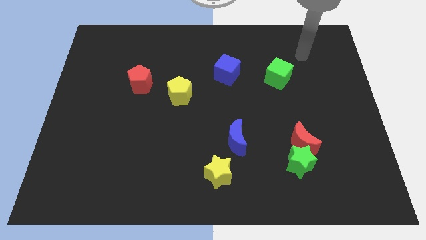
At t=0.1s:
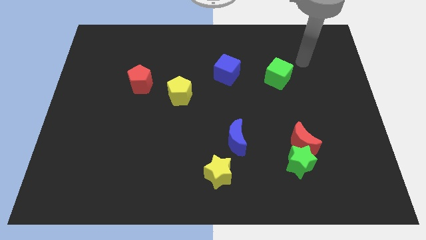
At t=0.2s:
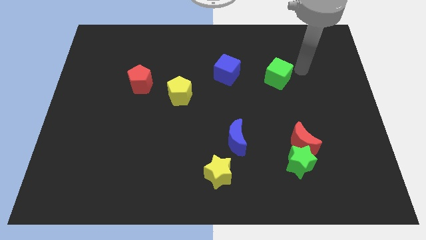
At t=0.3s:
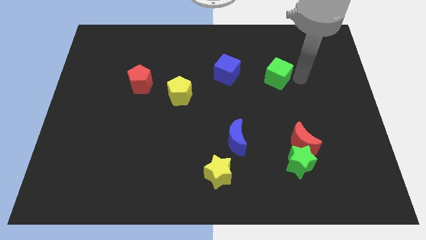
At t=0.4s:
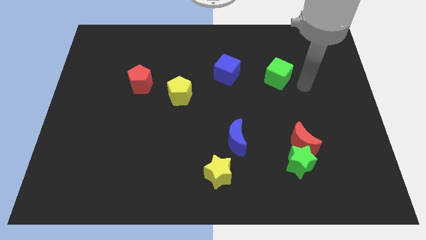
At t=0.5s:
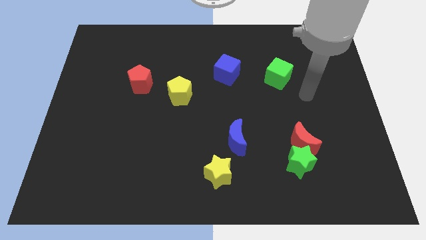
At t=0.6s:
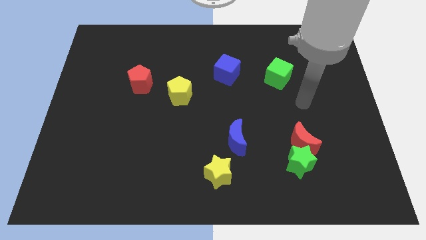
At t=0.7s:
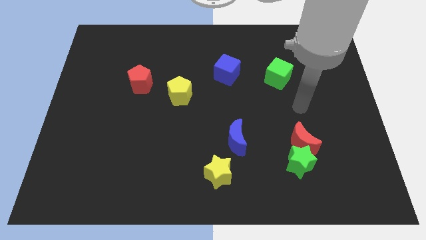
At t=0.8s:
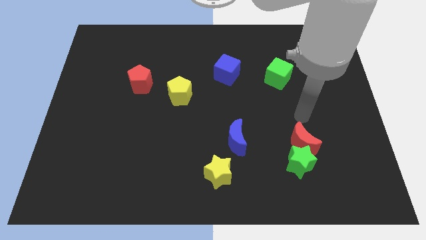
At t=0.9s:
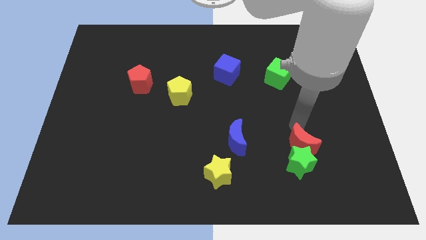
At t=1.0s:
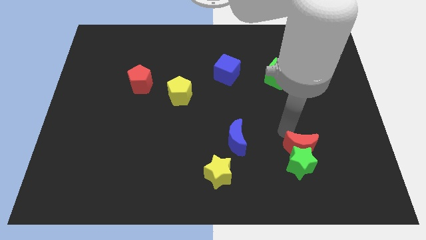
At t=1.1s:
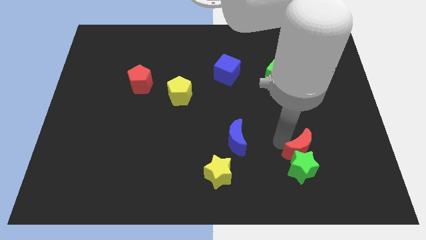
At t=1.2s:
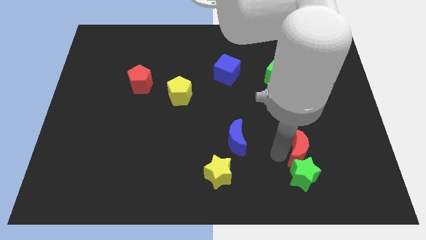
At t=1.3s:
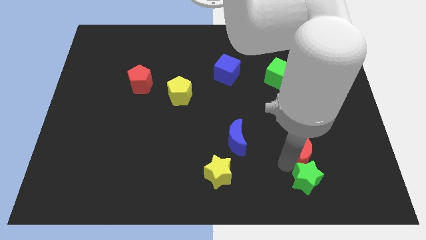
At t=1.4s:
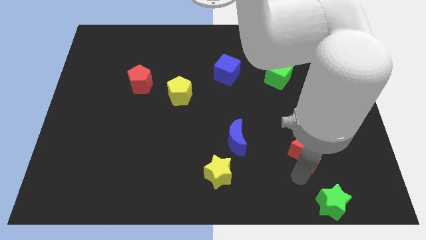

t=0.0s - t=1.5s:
pull the red moon apart from the green star

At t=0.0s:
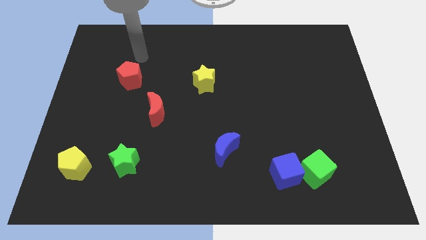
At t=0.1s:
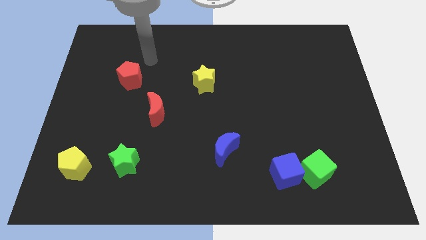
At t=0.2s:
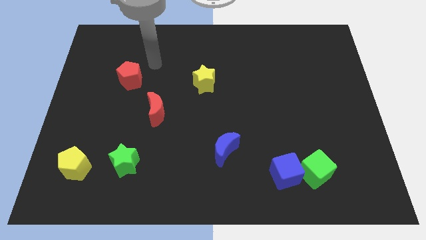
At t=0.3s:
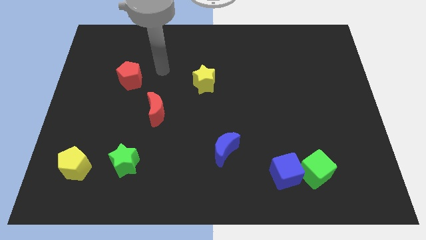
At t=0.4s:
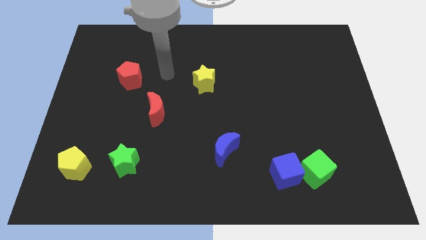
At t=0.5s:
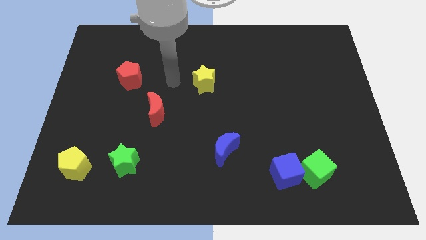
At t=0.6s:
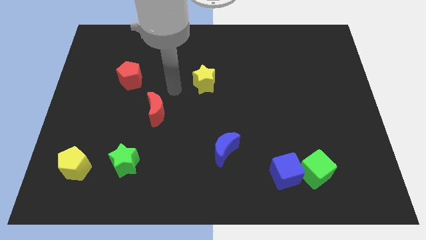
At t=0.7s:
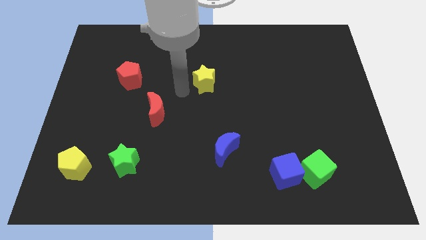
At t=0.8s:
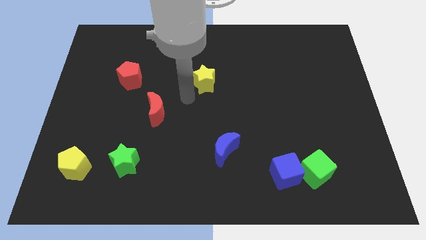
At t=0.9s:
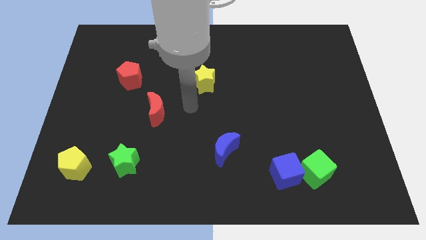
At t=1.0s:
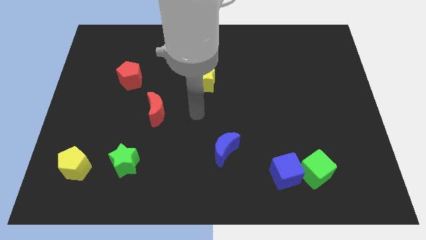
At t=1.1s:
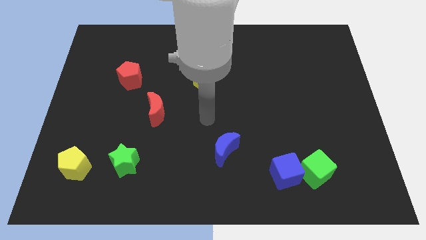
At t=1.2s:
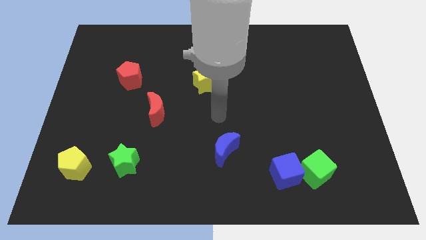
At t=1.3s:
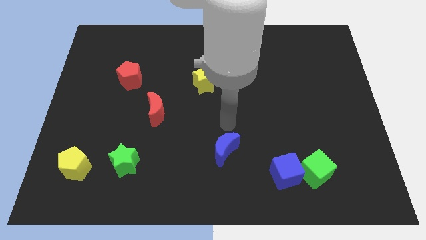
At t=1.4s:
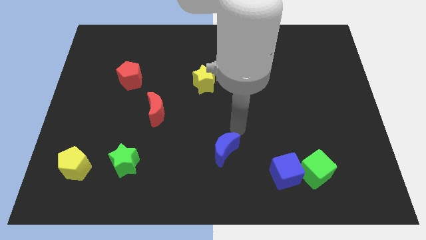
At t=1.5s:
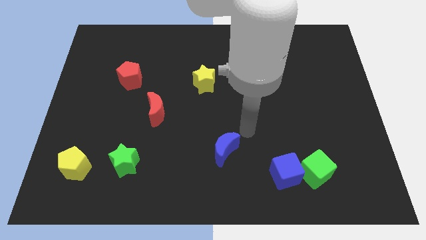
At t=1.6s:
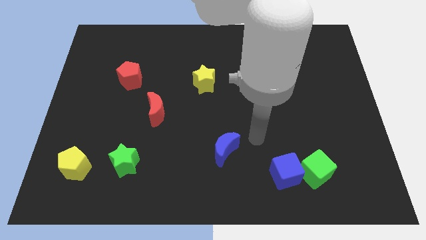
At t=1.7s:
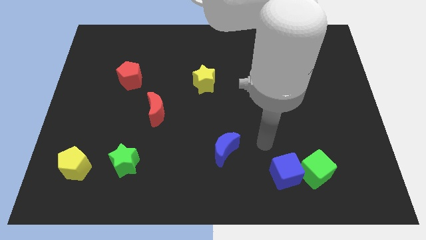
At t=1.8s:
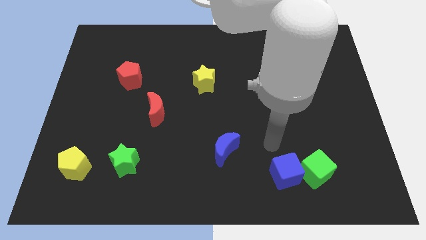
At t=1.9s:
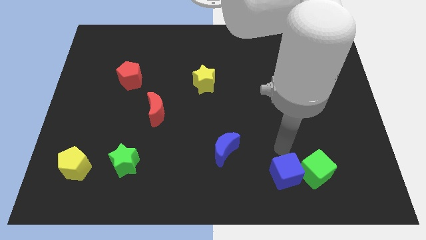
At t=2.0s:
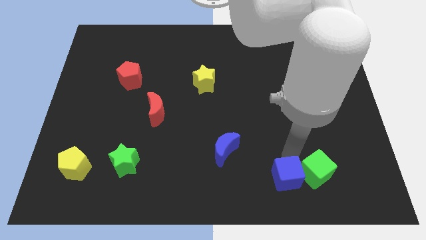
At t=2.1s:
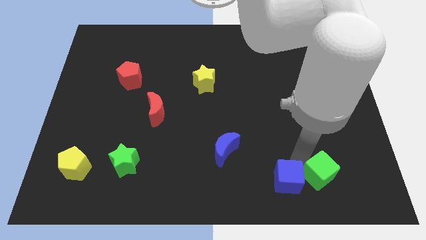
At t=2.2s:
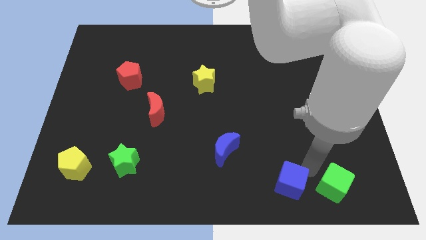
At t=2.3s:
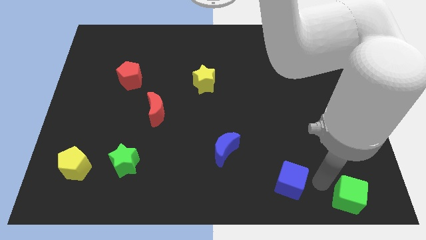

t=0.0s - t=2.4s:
move the blue cube away from the green cube

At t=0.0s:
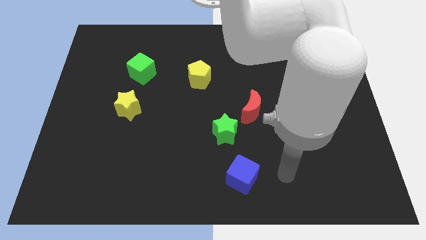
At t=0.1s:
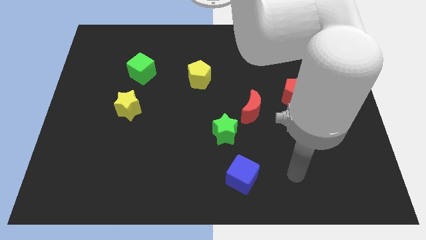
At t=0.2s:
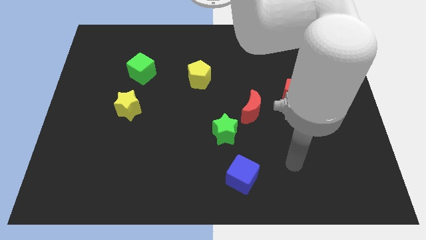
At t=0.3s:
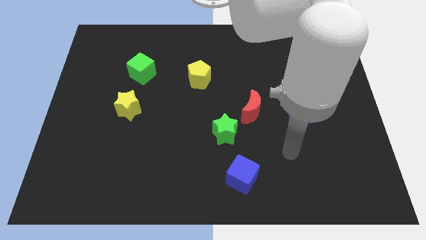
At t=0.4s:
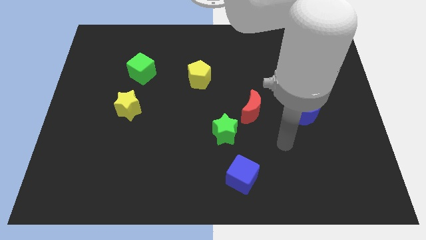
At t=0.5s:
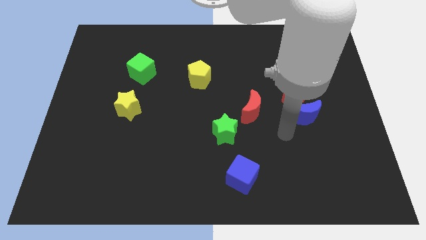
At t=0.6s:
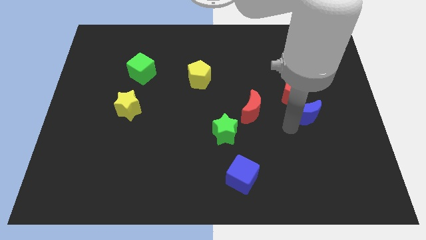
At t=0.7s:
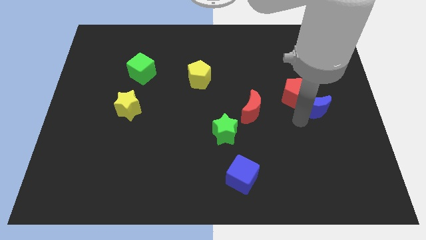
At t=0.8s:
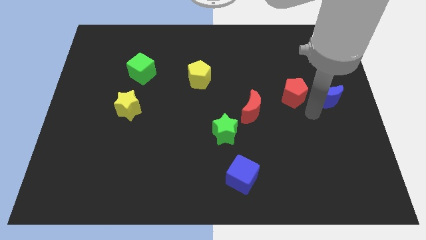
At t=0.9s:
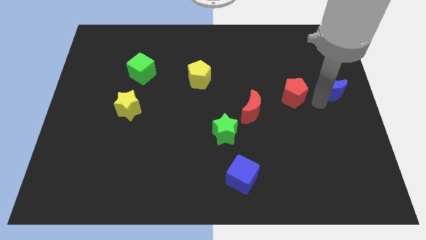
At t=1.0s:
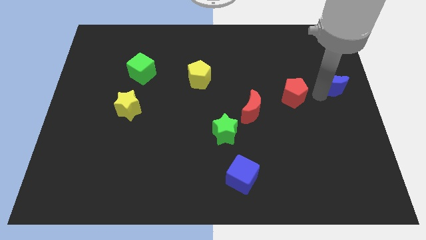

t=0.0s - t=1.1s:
pull the red pentagon apart from the blue moon

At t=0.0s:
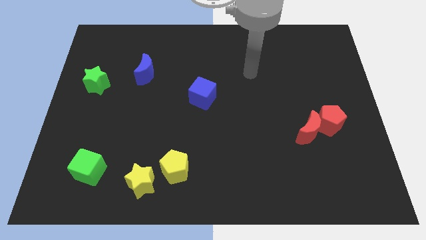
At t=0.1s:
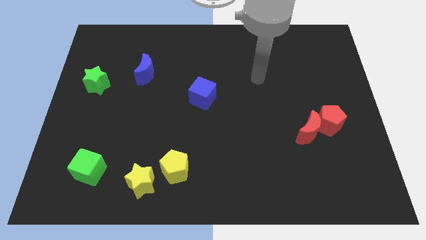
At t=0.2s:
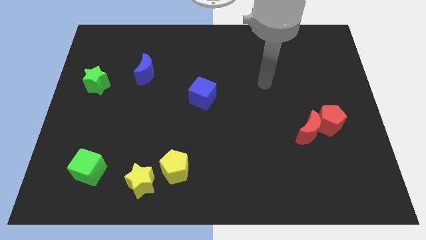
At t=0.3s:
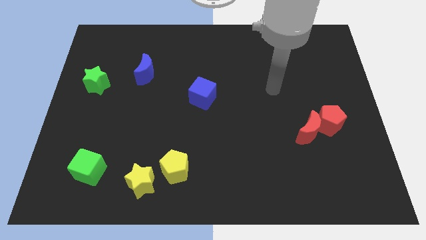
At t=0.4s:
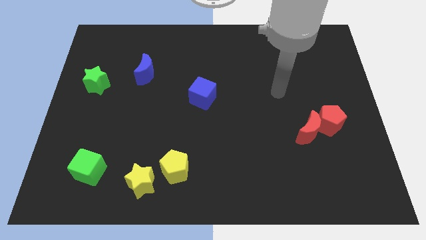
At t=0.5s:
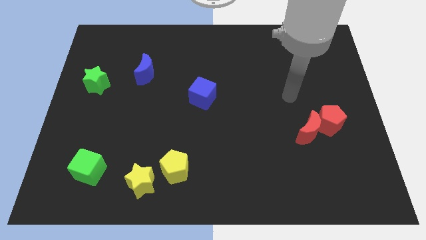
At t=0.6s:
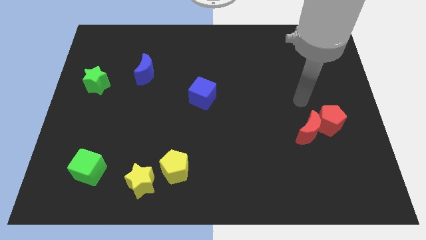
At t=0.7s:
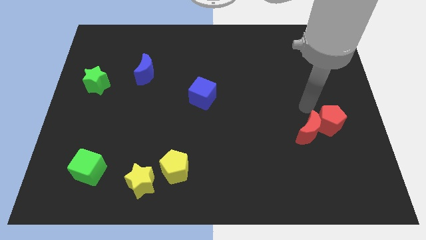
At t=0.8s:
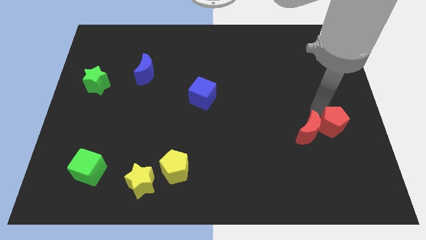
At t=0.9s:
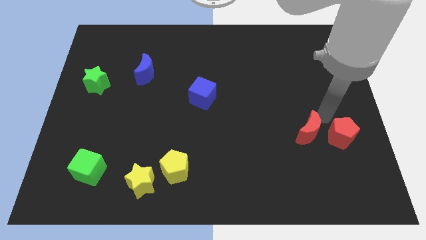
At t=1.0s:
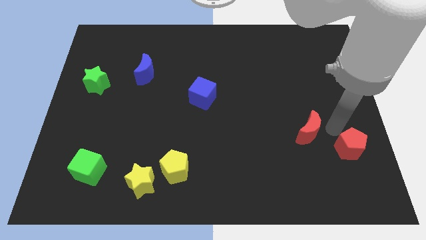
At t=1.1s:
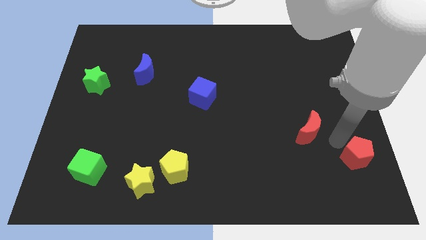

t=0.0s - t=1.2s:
separate the red moon from the red pentagon

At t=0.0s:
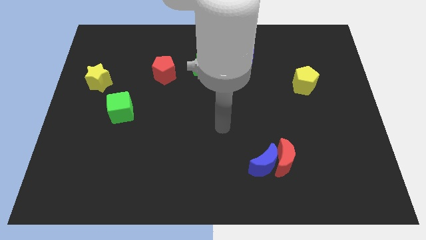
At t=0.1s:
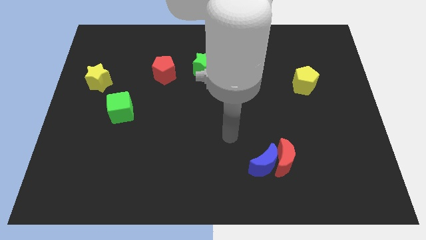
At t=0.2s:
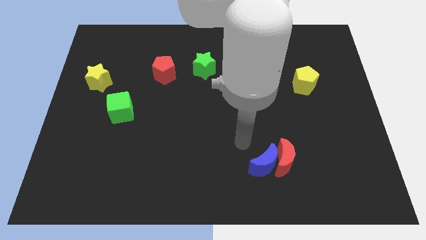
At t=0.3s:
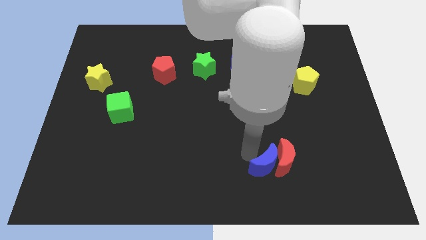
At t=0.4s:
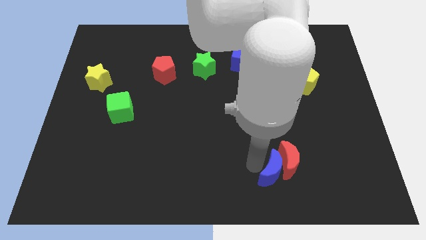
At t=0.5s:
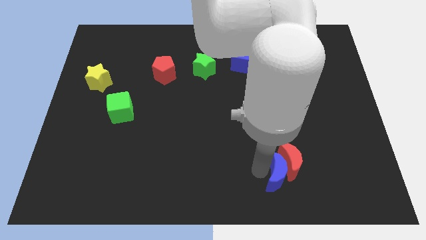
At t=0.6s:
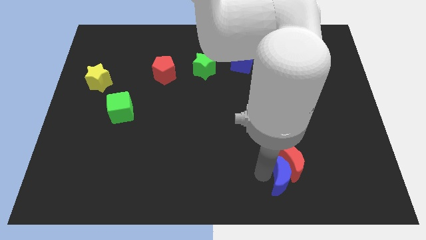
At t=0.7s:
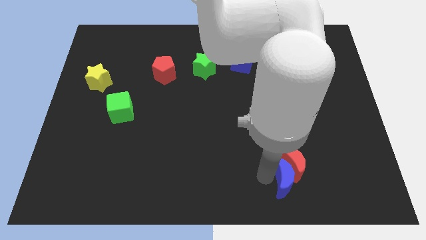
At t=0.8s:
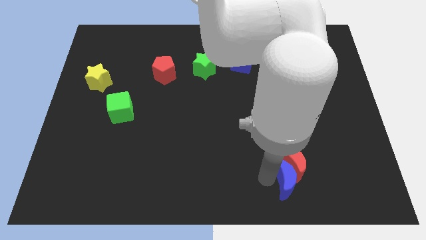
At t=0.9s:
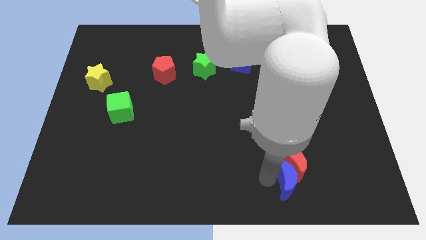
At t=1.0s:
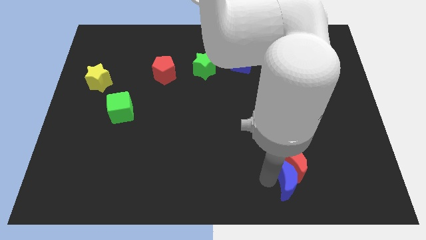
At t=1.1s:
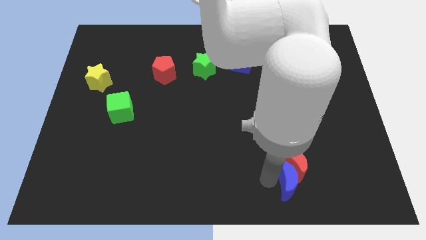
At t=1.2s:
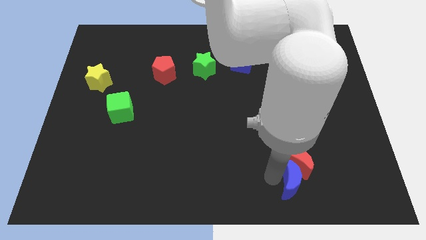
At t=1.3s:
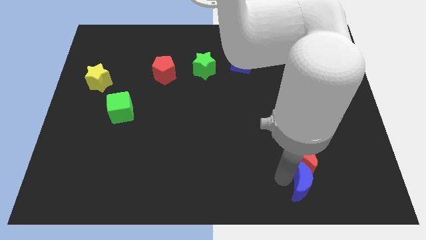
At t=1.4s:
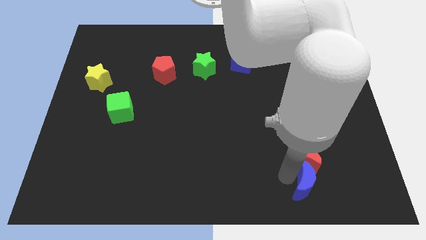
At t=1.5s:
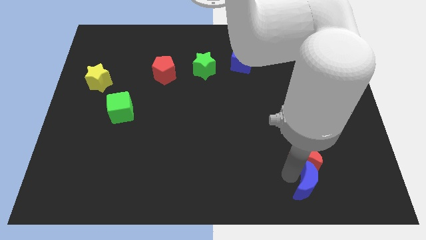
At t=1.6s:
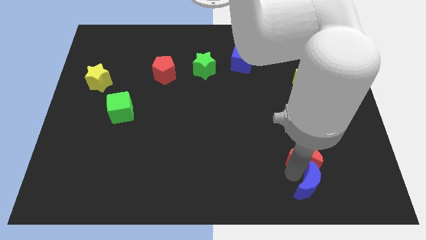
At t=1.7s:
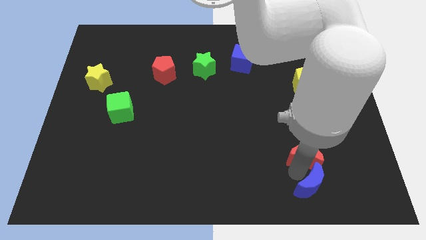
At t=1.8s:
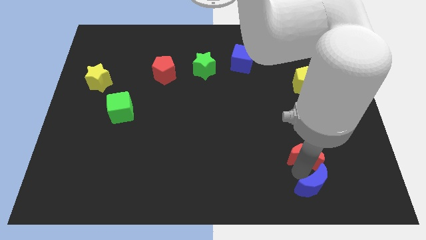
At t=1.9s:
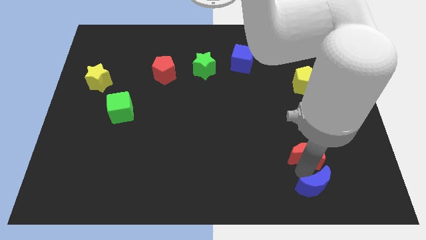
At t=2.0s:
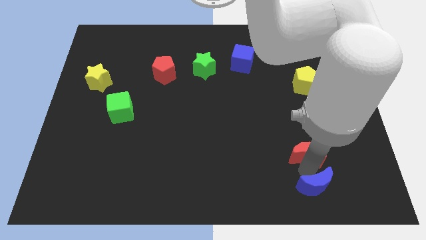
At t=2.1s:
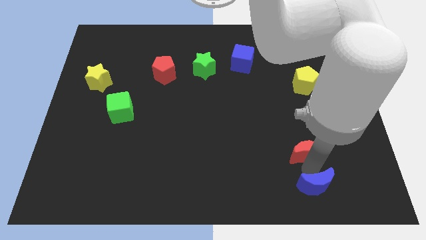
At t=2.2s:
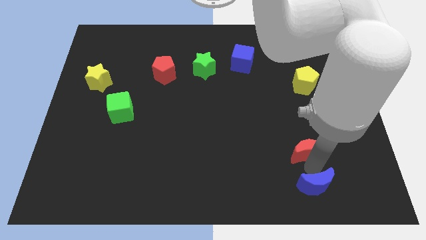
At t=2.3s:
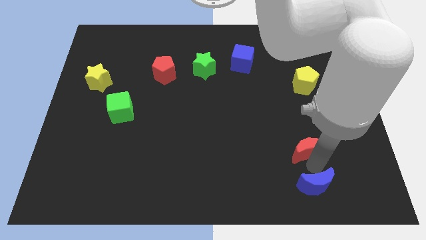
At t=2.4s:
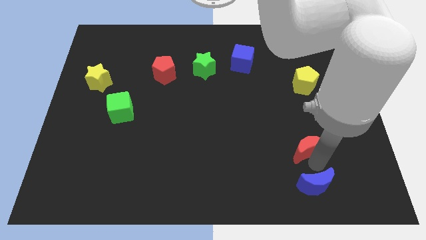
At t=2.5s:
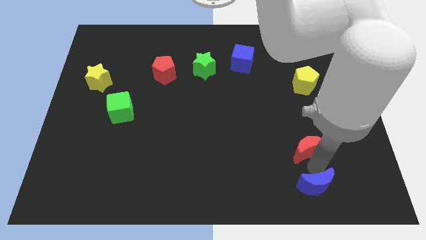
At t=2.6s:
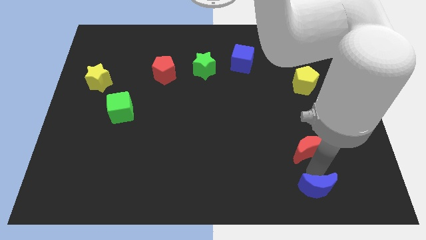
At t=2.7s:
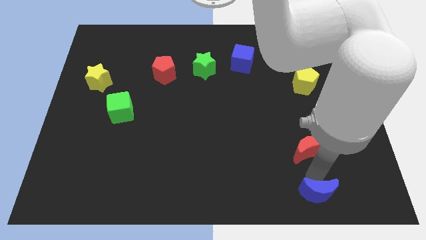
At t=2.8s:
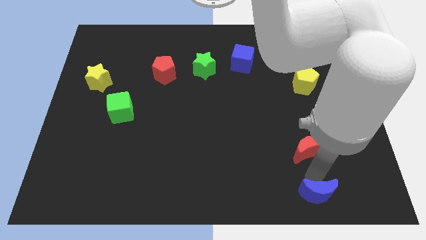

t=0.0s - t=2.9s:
move the red moon away from the blue moon

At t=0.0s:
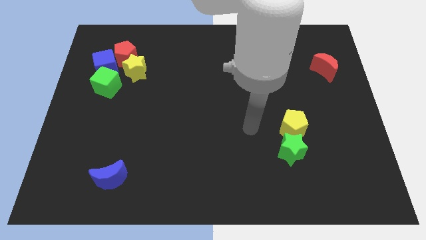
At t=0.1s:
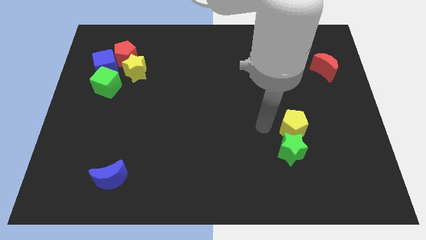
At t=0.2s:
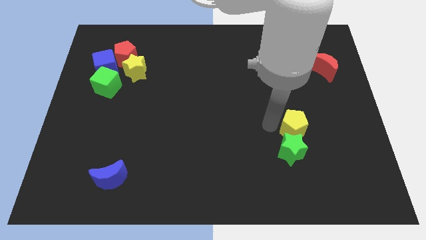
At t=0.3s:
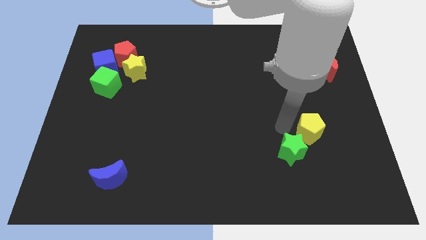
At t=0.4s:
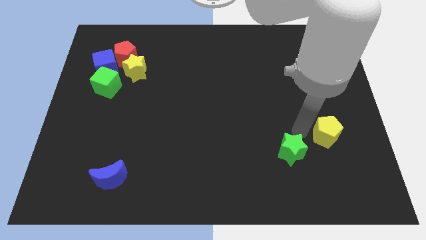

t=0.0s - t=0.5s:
move the green star away from the yellow pentagon
